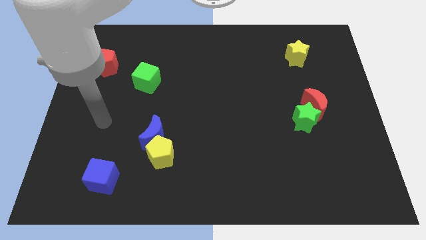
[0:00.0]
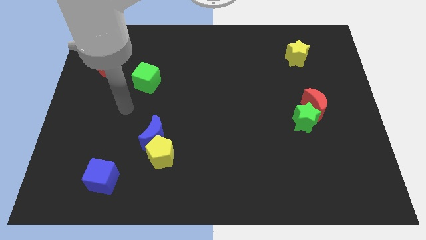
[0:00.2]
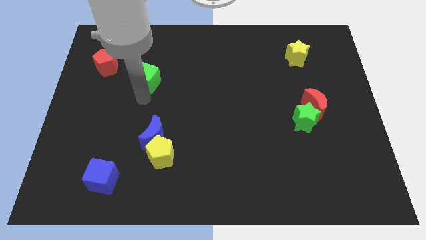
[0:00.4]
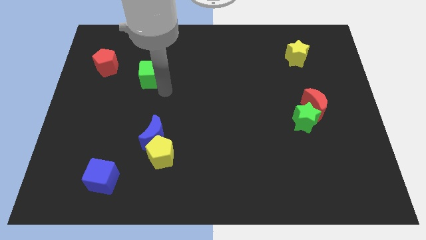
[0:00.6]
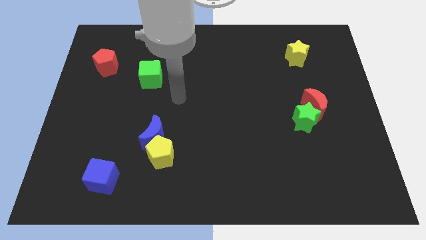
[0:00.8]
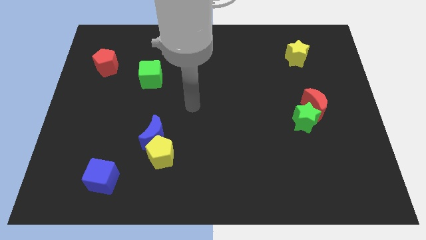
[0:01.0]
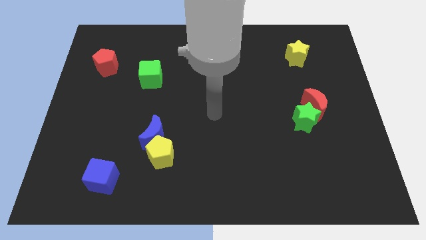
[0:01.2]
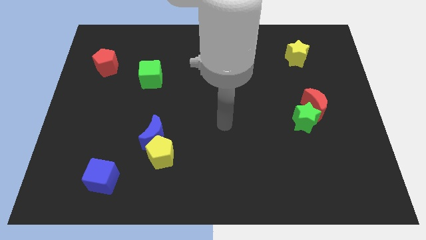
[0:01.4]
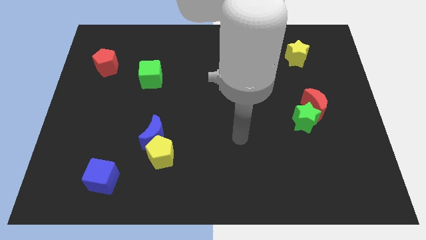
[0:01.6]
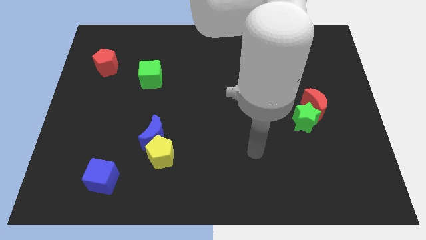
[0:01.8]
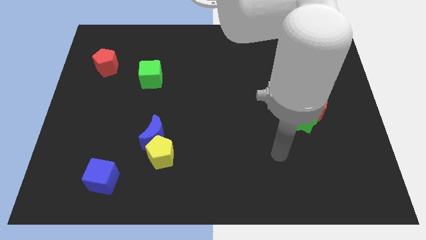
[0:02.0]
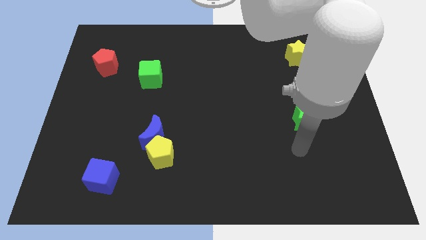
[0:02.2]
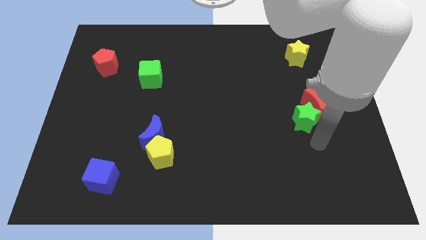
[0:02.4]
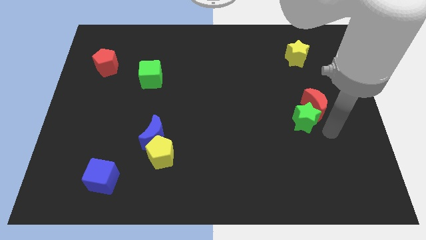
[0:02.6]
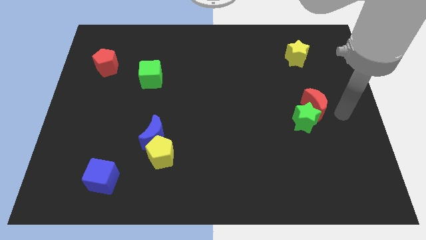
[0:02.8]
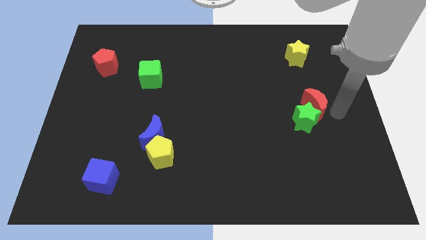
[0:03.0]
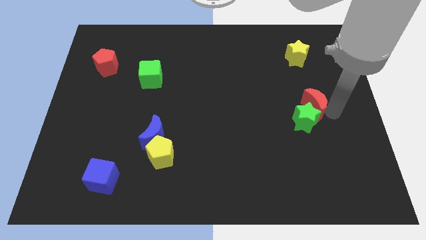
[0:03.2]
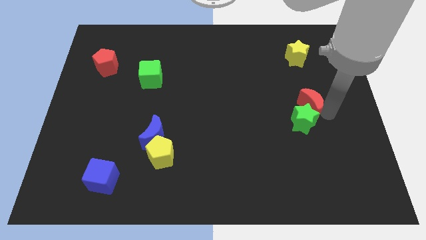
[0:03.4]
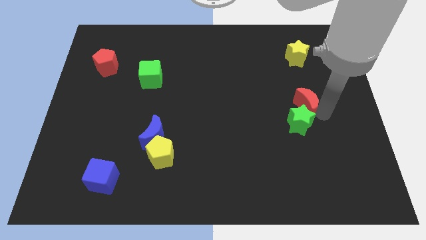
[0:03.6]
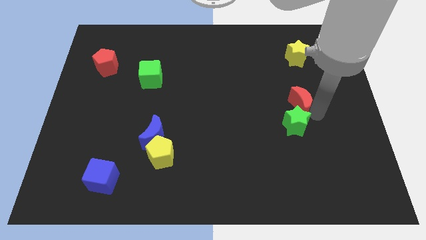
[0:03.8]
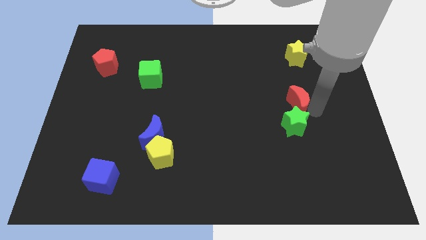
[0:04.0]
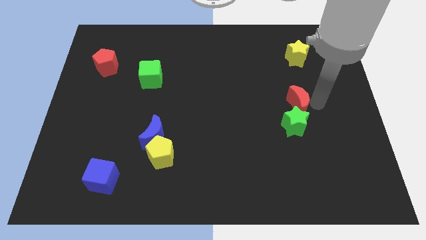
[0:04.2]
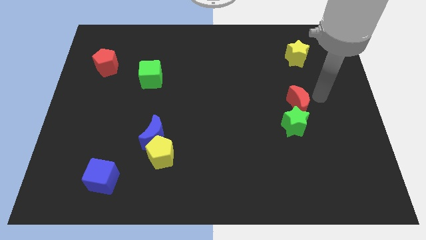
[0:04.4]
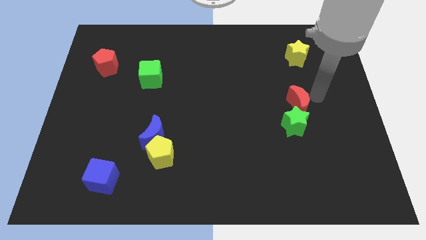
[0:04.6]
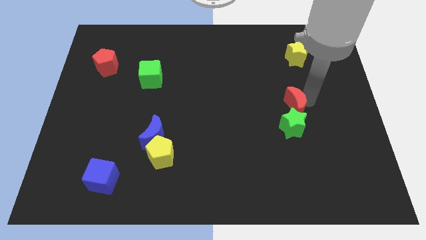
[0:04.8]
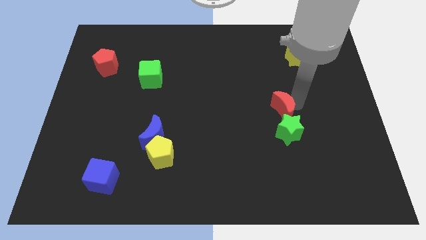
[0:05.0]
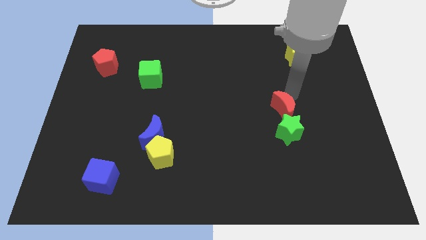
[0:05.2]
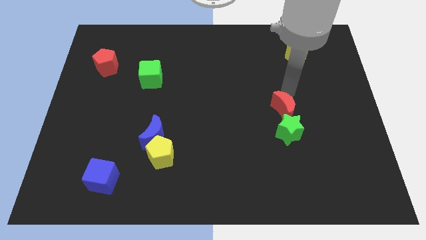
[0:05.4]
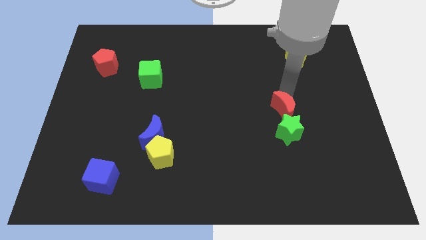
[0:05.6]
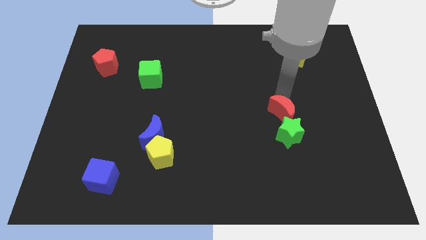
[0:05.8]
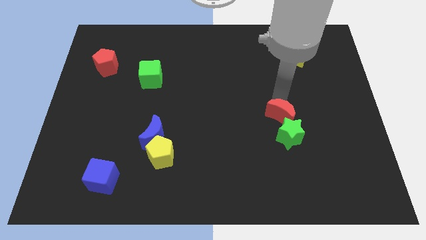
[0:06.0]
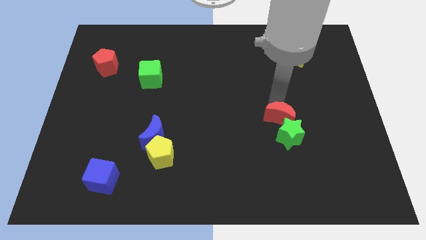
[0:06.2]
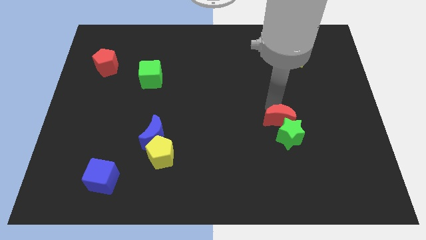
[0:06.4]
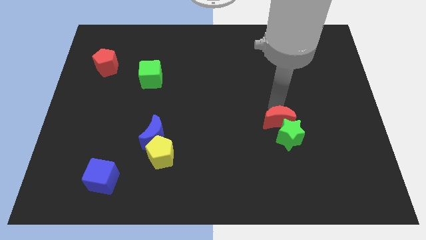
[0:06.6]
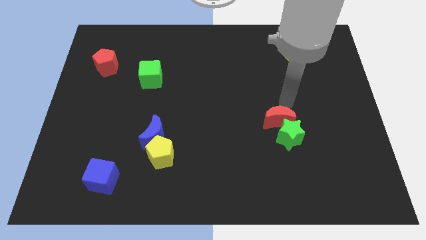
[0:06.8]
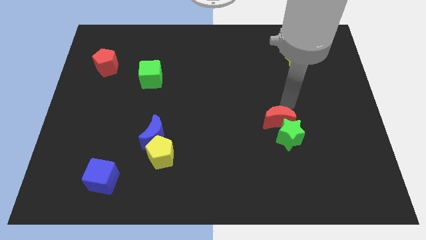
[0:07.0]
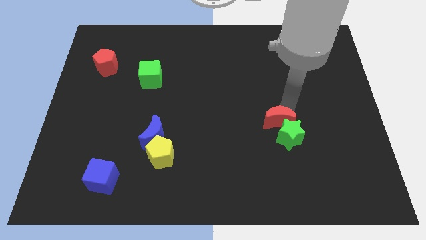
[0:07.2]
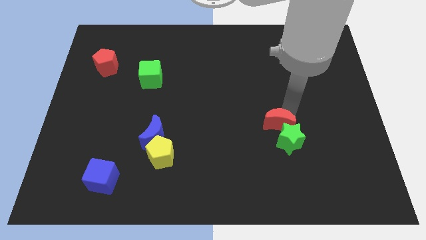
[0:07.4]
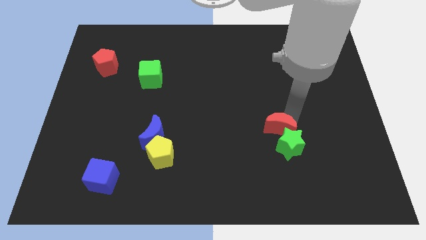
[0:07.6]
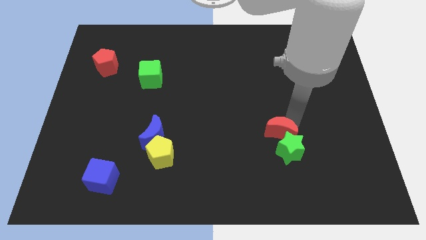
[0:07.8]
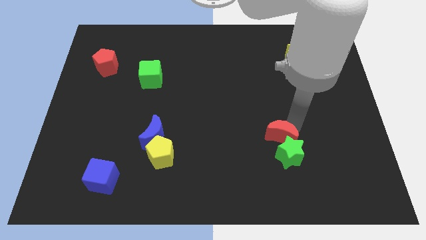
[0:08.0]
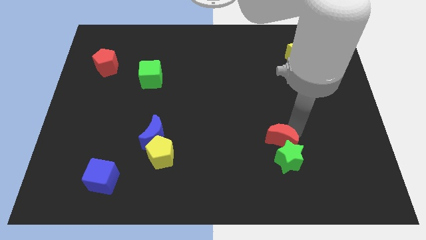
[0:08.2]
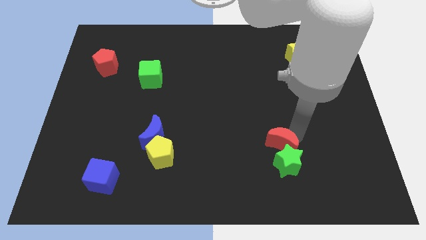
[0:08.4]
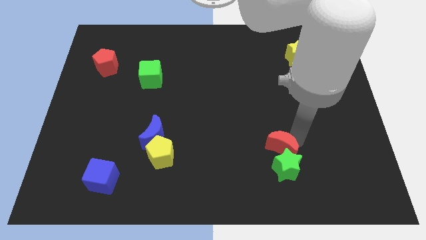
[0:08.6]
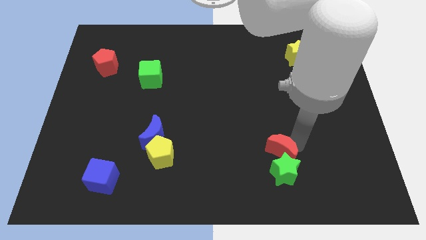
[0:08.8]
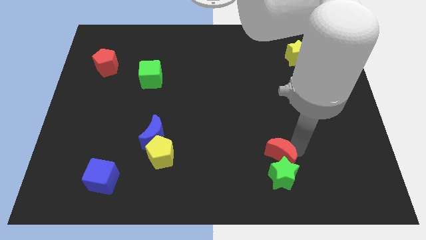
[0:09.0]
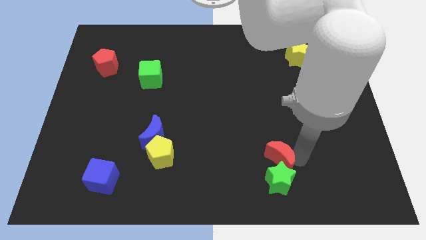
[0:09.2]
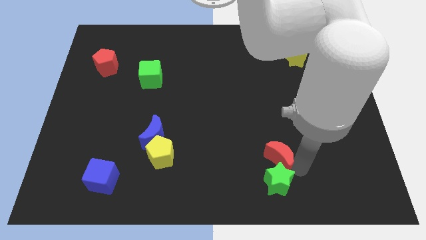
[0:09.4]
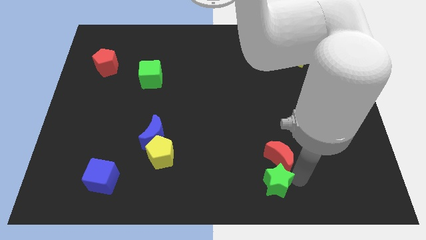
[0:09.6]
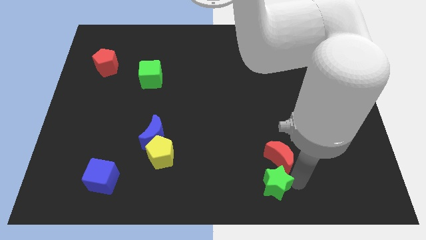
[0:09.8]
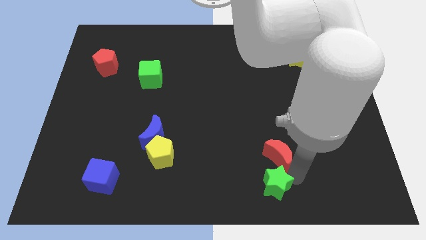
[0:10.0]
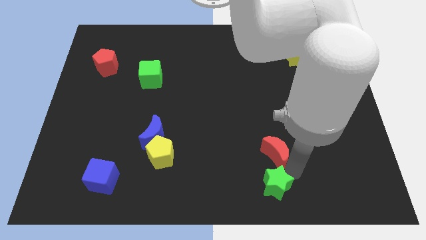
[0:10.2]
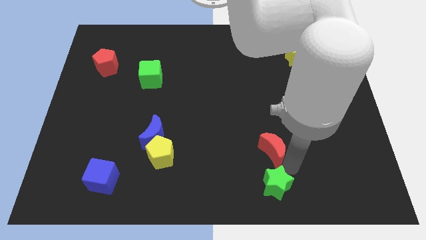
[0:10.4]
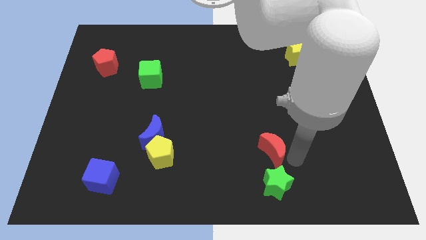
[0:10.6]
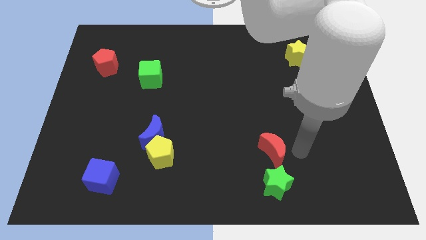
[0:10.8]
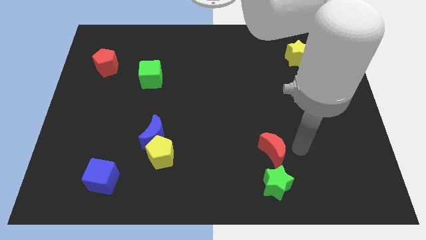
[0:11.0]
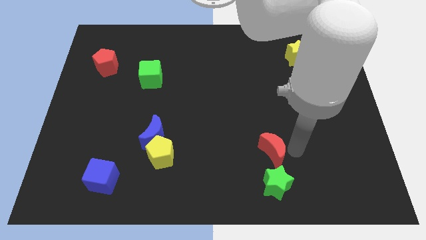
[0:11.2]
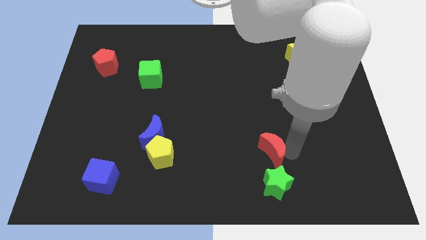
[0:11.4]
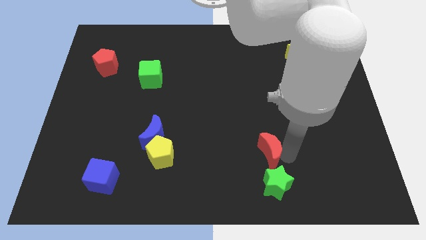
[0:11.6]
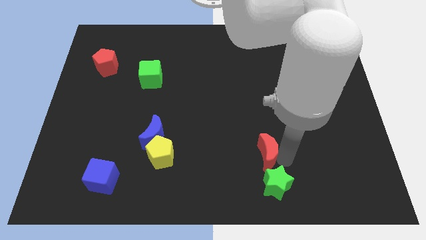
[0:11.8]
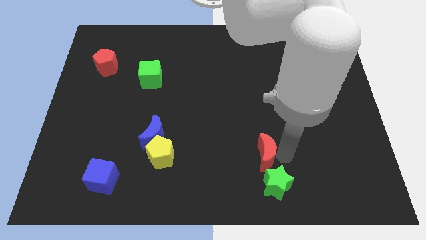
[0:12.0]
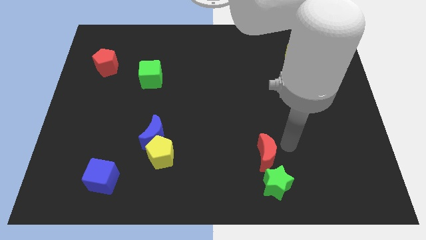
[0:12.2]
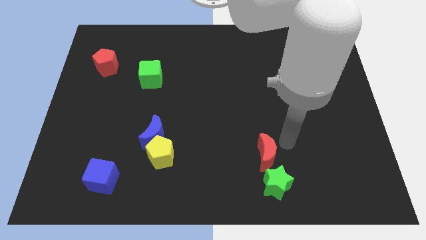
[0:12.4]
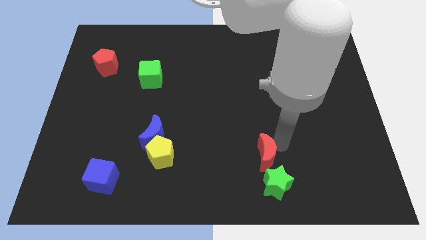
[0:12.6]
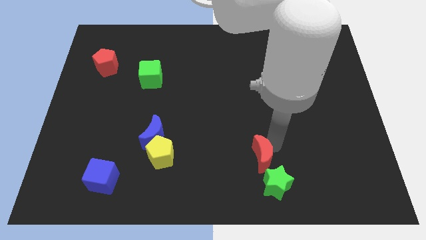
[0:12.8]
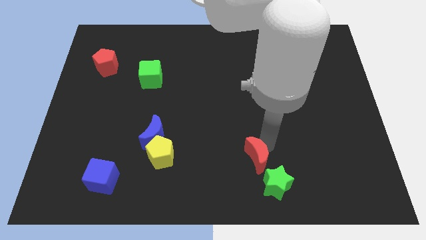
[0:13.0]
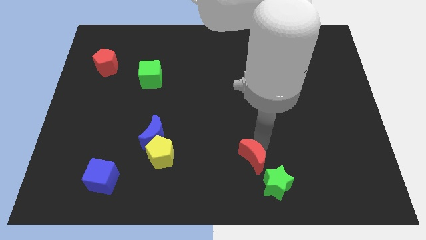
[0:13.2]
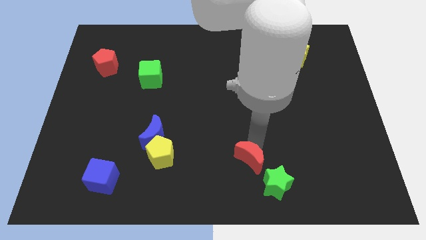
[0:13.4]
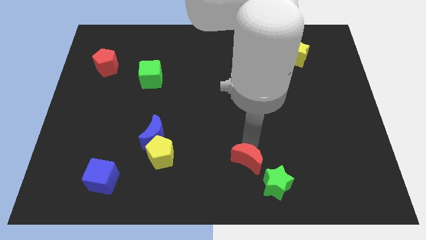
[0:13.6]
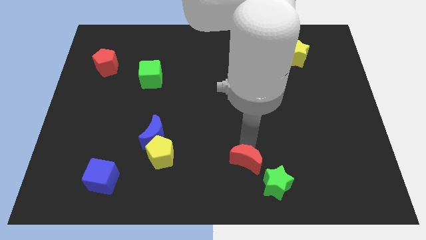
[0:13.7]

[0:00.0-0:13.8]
slide the red moon to the bottom
